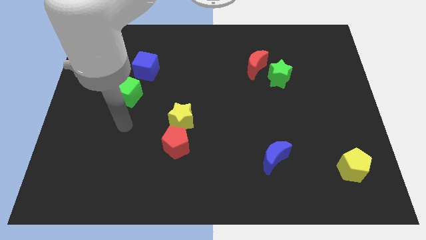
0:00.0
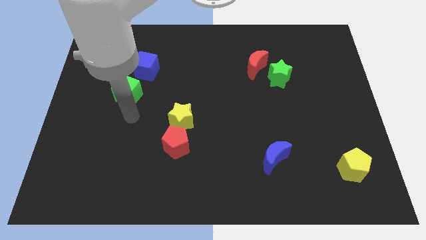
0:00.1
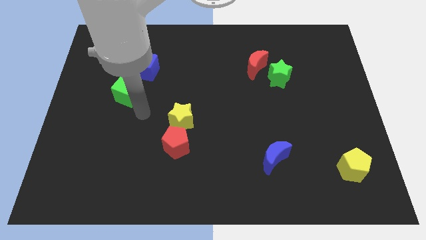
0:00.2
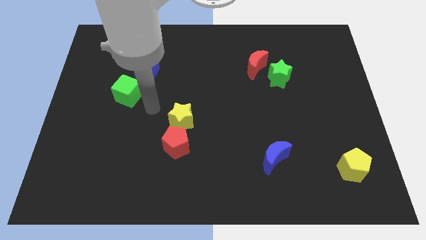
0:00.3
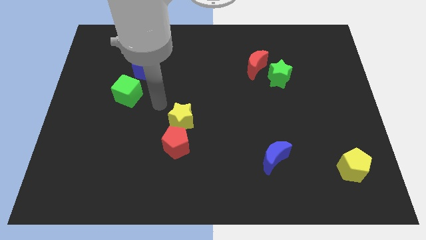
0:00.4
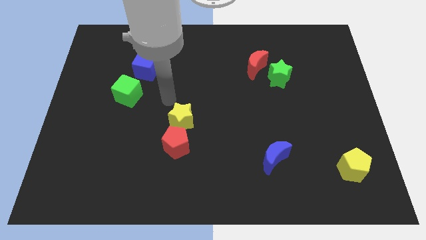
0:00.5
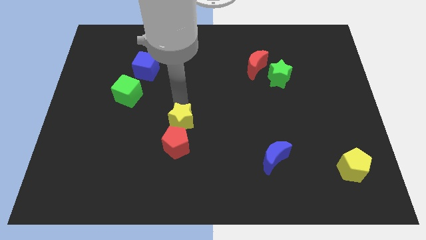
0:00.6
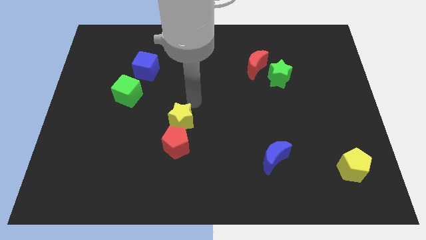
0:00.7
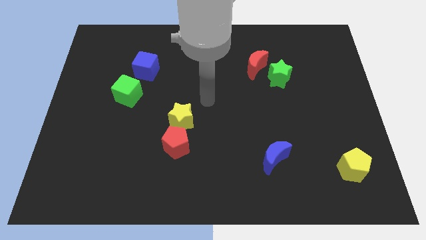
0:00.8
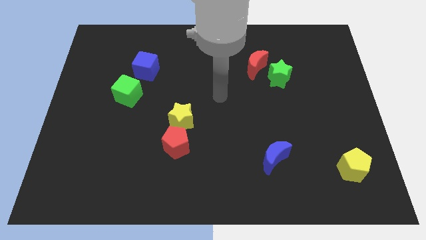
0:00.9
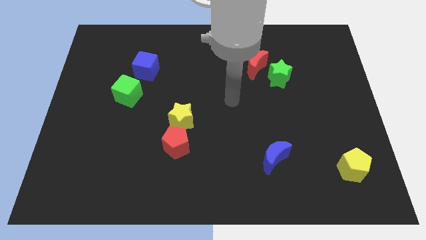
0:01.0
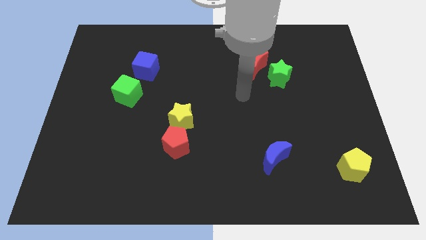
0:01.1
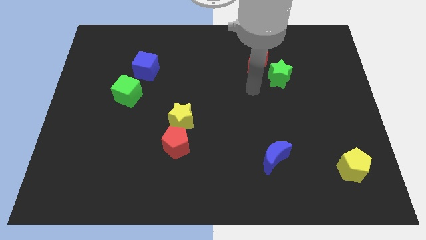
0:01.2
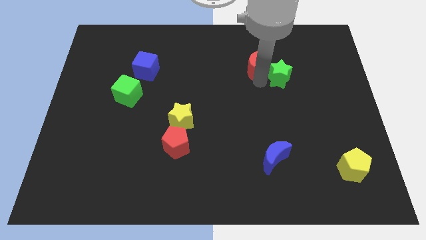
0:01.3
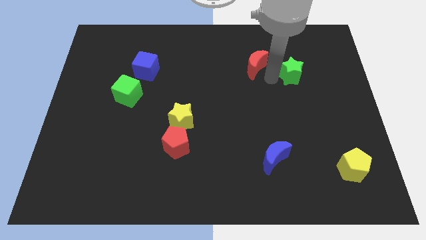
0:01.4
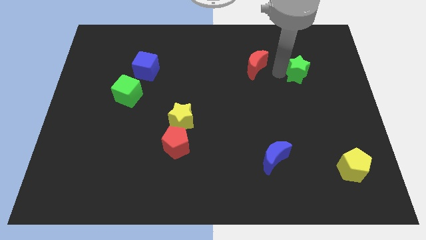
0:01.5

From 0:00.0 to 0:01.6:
separate the red moon from the green star

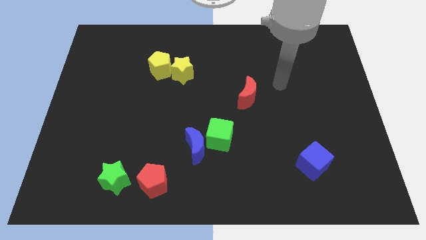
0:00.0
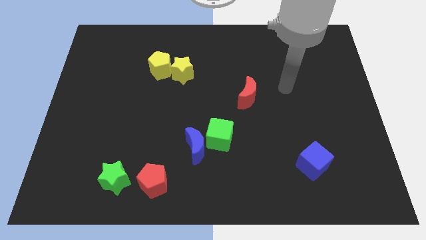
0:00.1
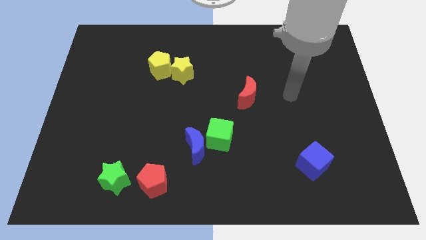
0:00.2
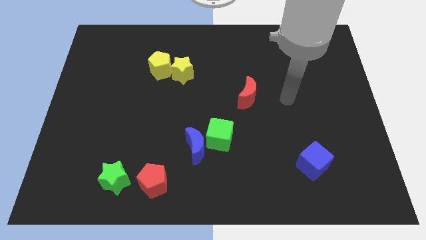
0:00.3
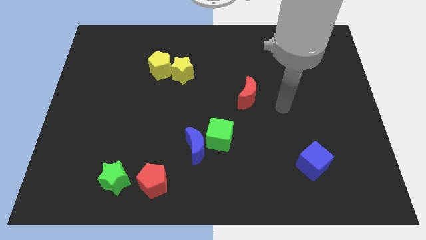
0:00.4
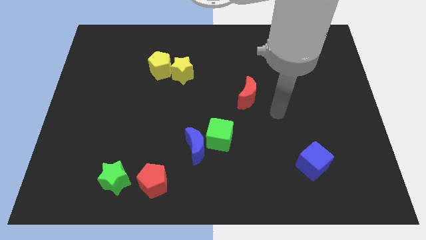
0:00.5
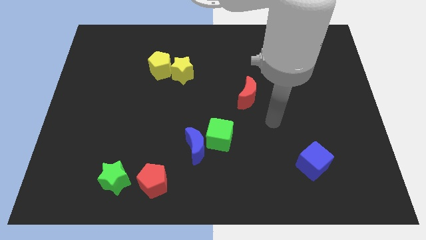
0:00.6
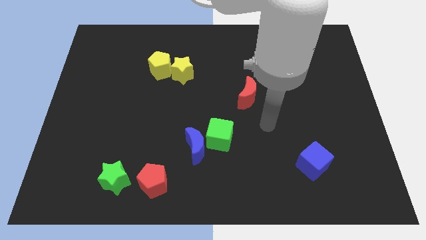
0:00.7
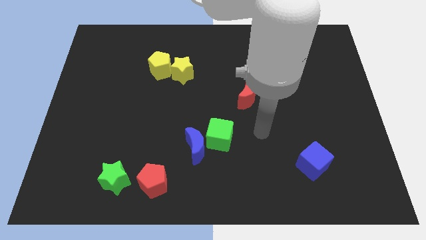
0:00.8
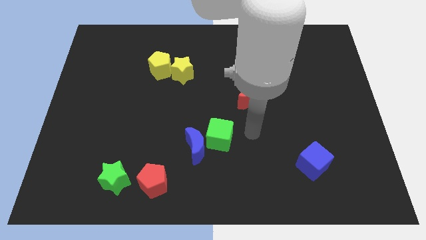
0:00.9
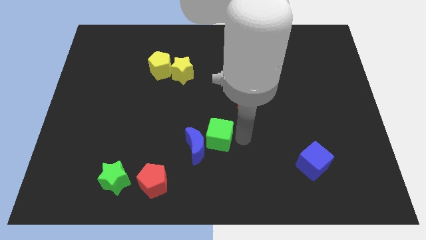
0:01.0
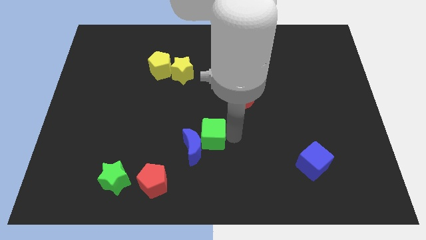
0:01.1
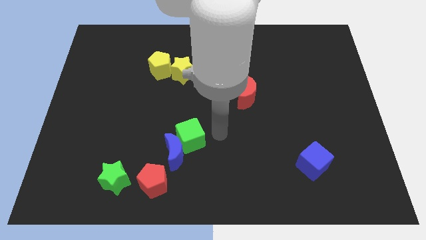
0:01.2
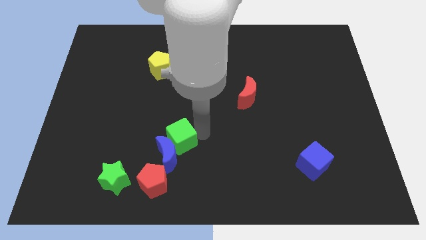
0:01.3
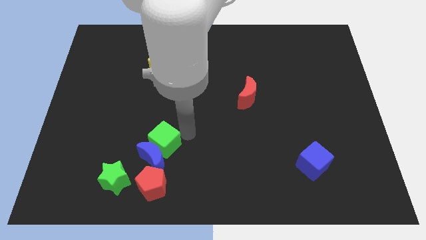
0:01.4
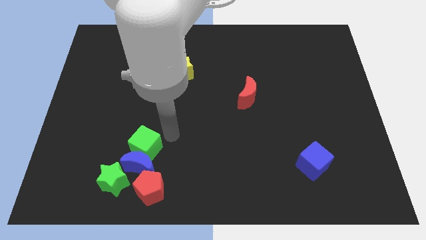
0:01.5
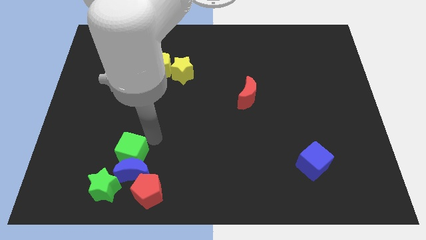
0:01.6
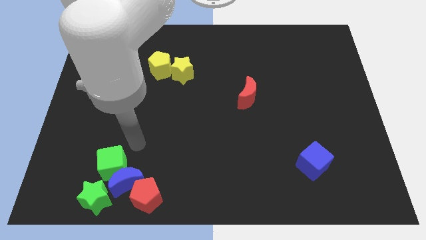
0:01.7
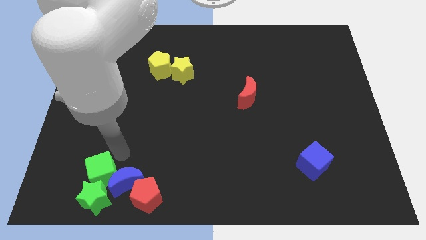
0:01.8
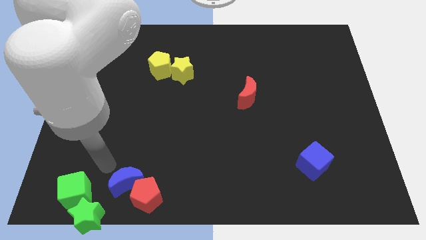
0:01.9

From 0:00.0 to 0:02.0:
separate the blue moon from the green cube

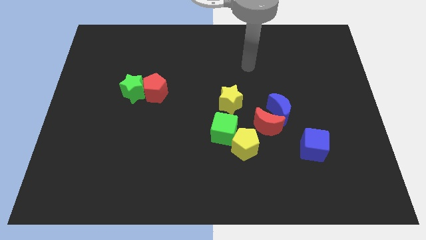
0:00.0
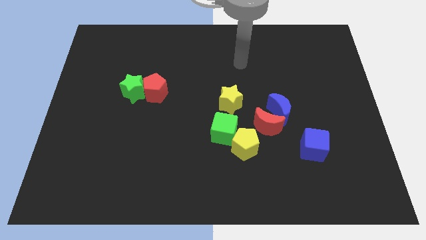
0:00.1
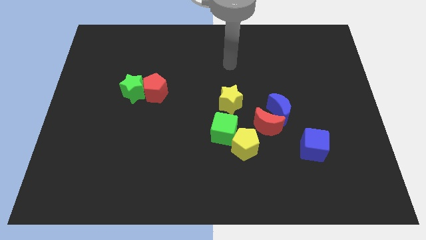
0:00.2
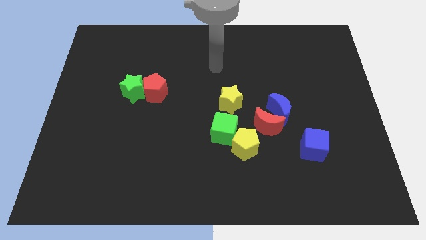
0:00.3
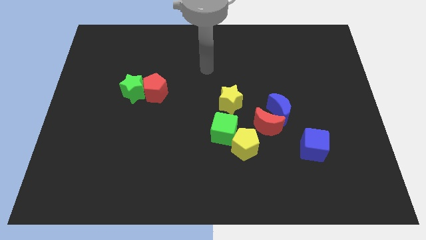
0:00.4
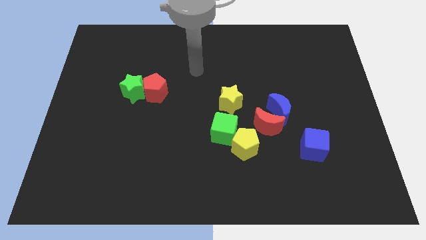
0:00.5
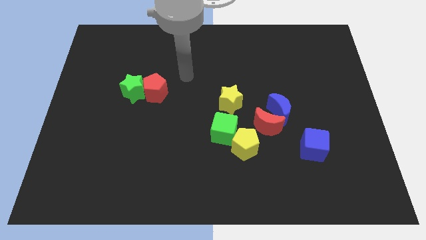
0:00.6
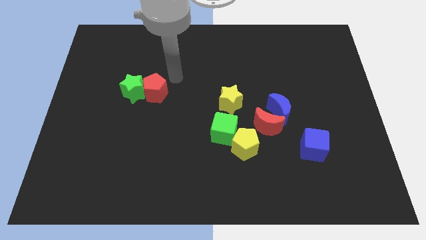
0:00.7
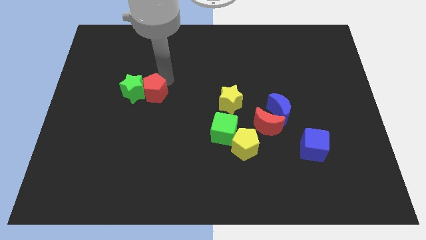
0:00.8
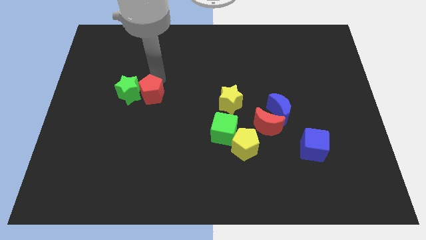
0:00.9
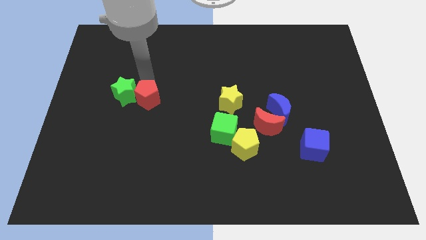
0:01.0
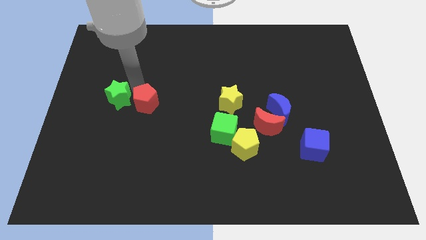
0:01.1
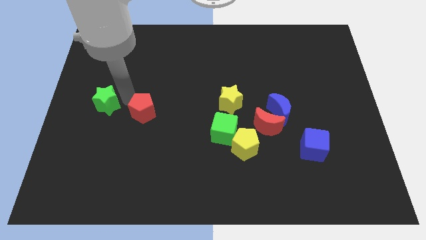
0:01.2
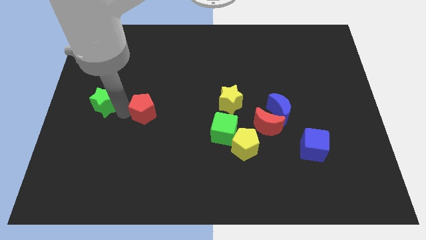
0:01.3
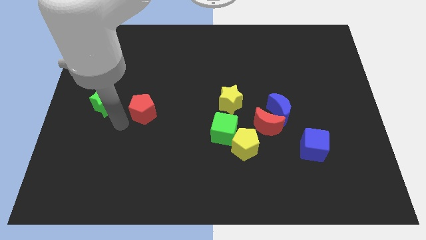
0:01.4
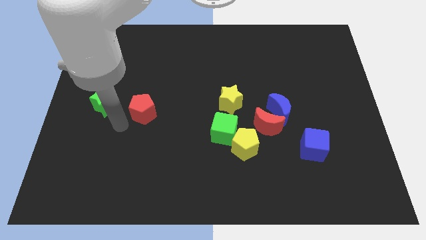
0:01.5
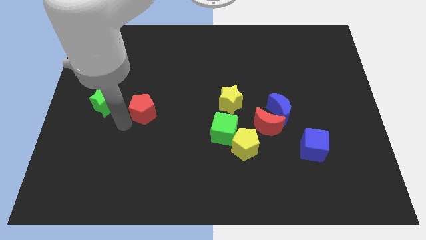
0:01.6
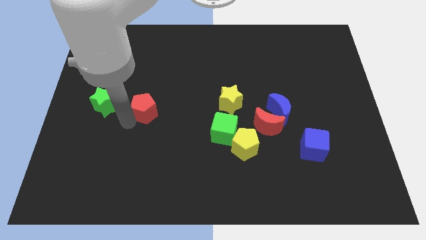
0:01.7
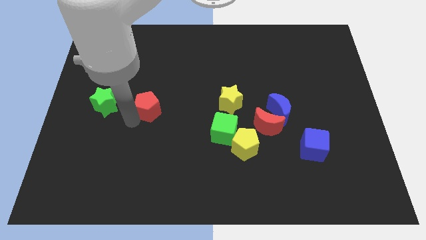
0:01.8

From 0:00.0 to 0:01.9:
separate the red pentagon from the green star

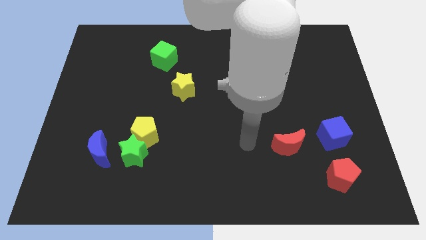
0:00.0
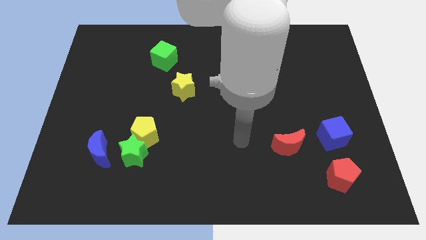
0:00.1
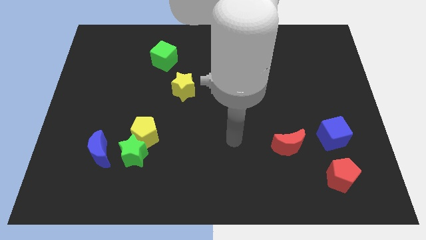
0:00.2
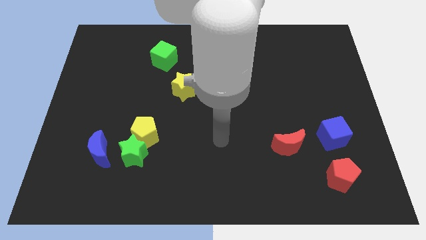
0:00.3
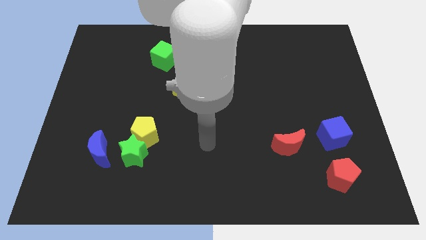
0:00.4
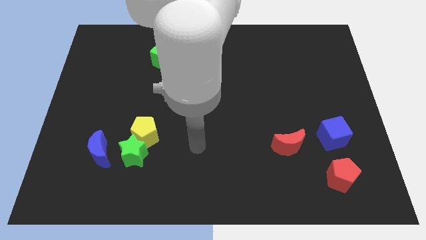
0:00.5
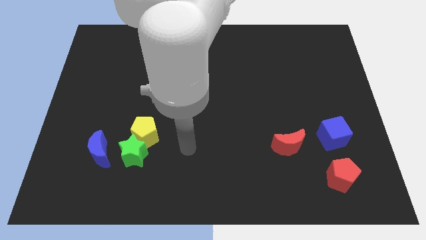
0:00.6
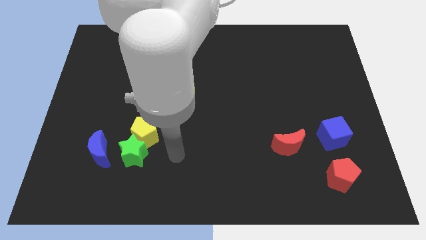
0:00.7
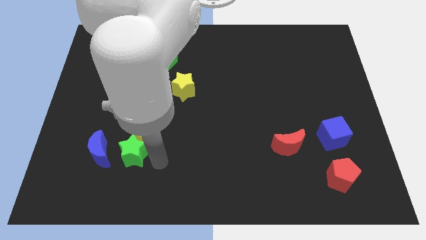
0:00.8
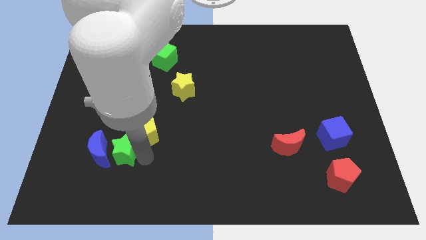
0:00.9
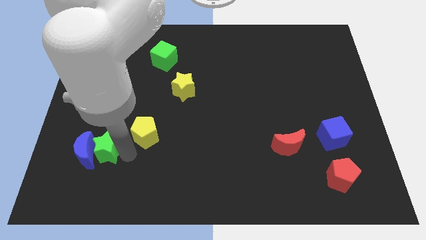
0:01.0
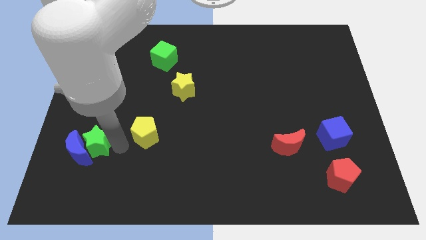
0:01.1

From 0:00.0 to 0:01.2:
pull the yellow pentagon apart from the green star

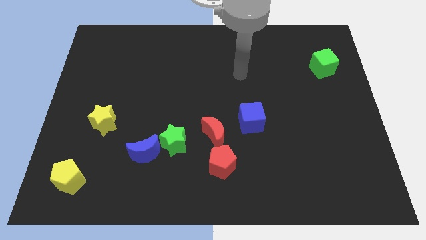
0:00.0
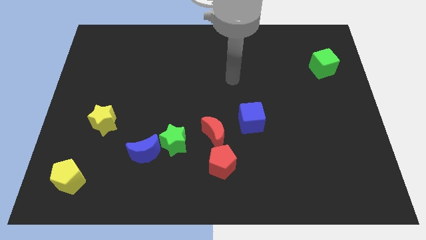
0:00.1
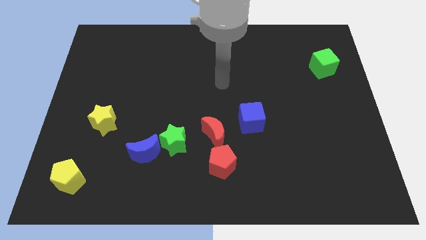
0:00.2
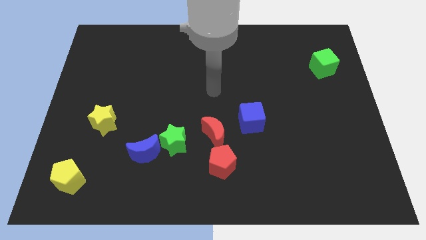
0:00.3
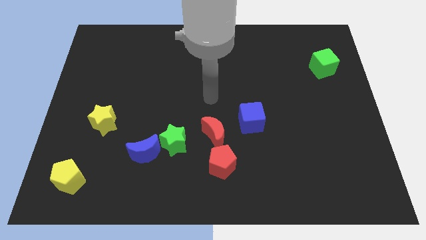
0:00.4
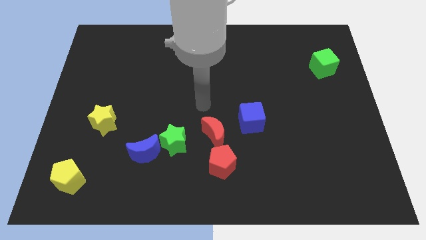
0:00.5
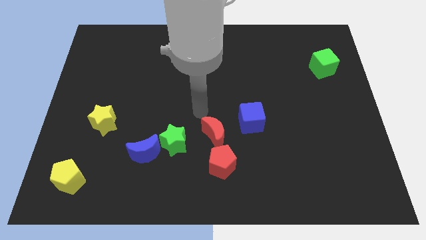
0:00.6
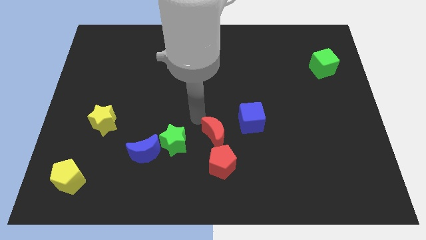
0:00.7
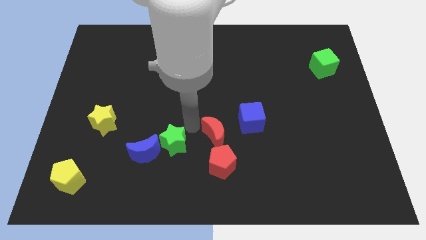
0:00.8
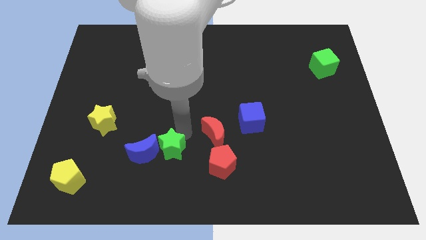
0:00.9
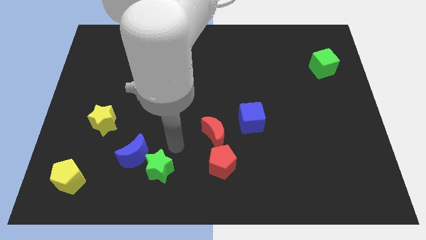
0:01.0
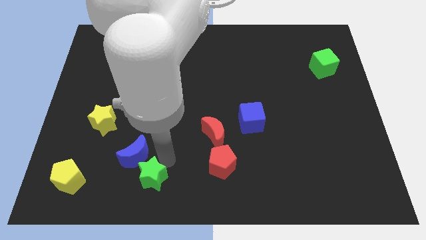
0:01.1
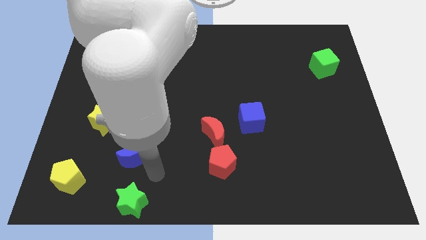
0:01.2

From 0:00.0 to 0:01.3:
move the blue moon away from the green star

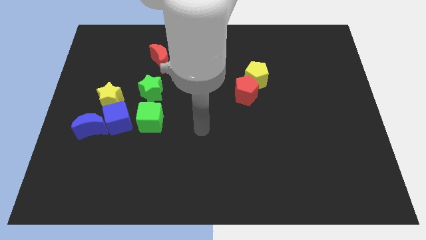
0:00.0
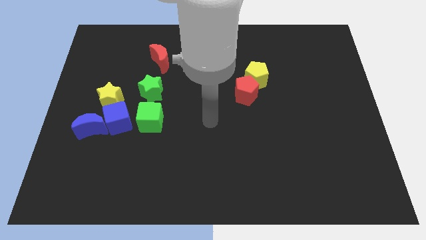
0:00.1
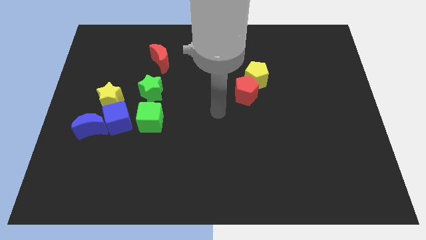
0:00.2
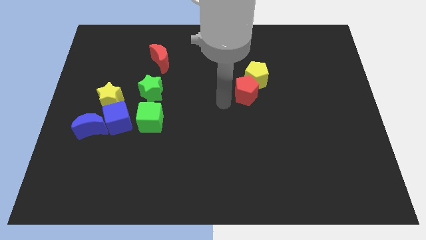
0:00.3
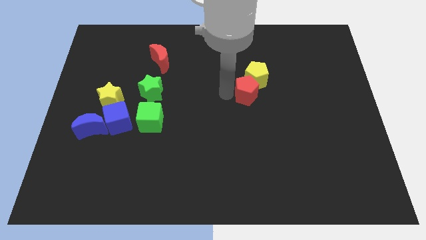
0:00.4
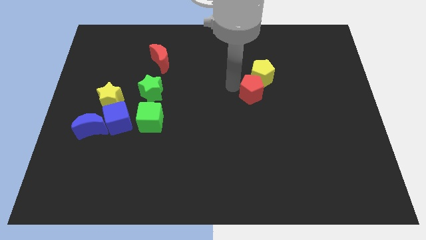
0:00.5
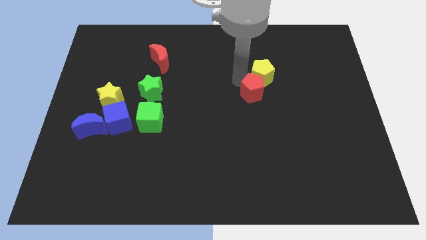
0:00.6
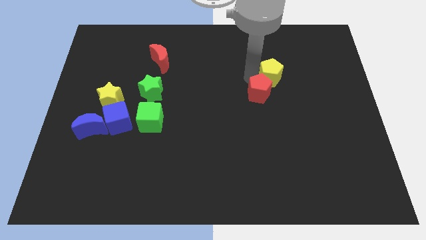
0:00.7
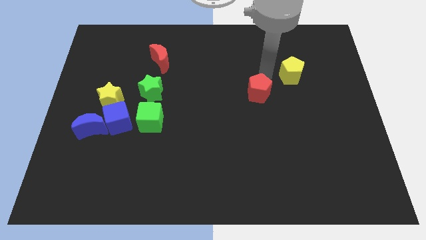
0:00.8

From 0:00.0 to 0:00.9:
pull the red pentagon apart from the yellow pentagon

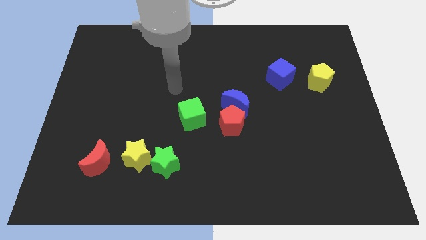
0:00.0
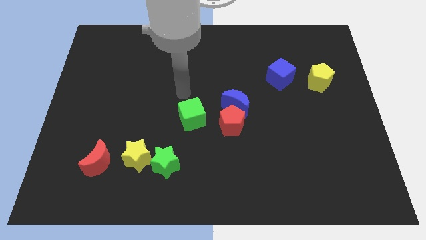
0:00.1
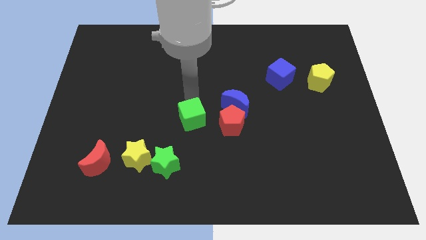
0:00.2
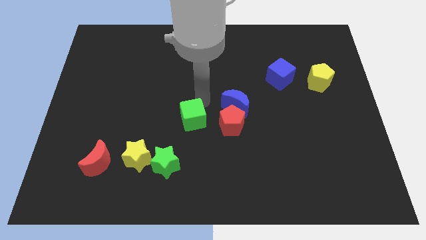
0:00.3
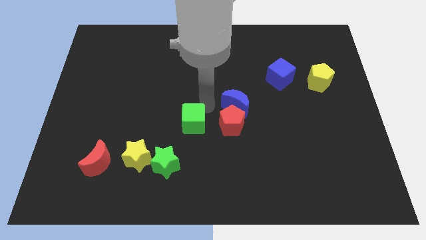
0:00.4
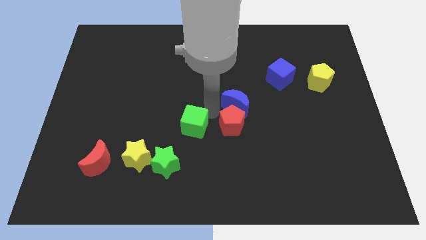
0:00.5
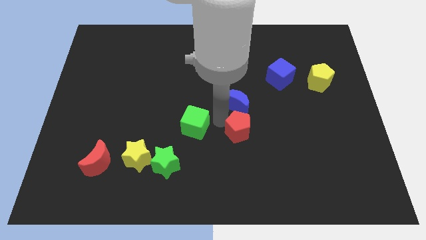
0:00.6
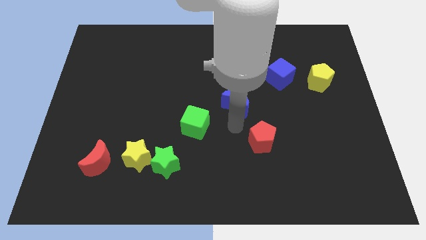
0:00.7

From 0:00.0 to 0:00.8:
separate the blue moon from the red pentagon
